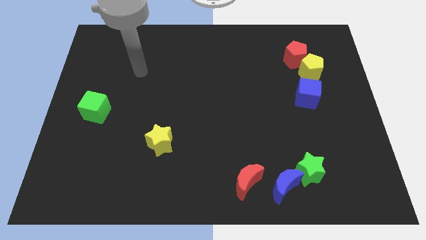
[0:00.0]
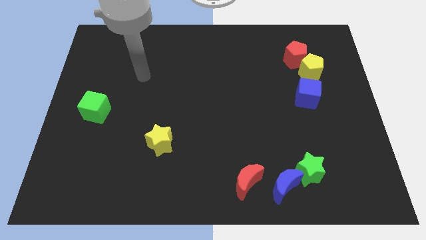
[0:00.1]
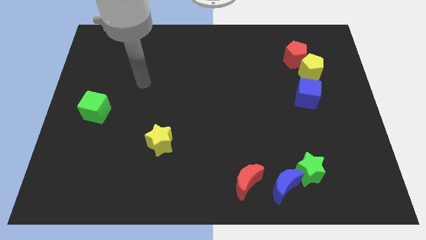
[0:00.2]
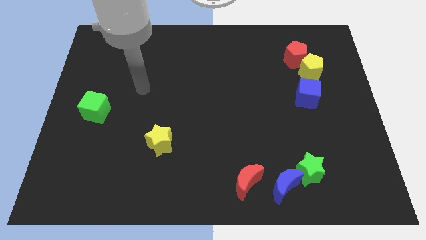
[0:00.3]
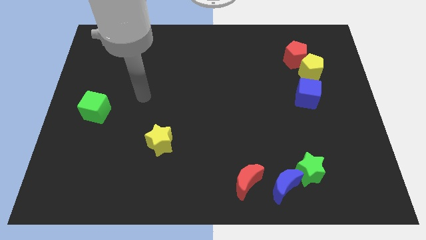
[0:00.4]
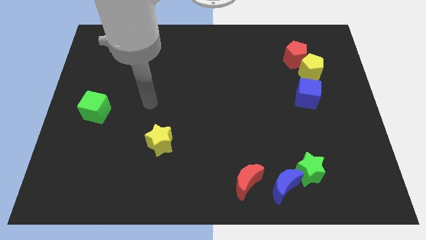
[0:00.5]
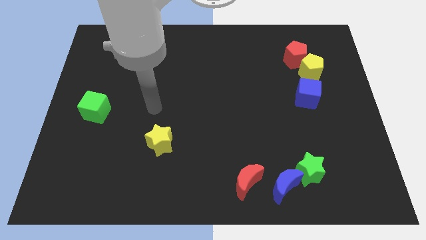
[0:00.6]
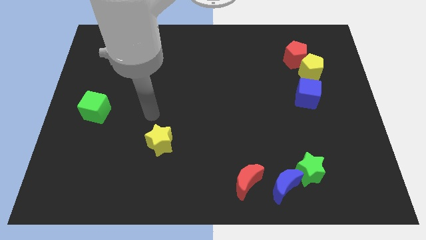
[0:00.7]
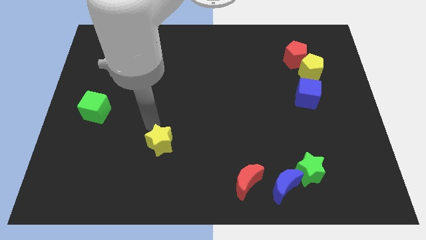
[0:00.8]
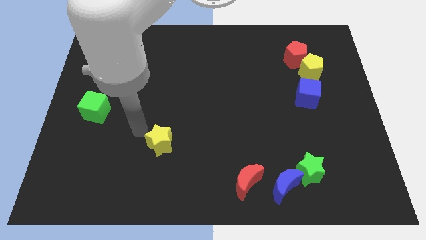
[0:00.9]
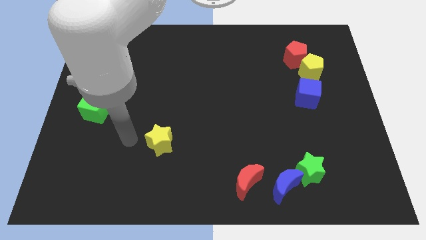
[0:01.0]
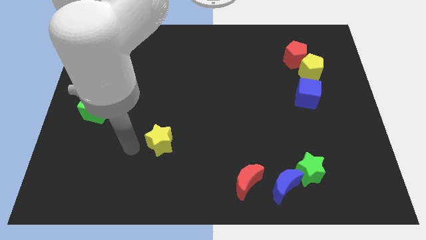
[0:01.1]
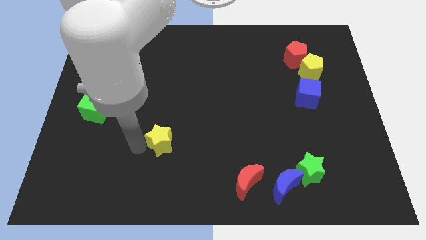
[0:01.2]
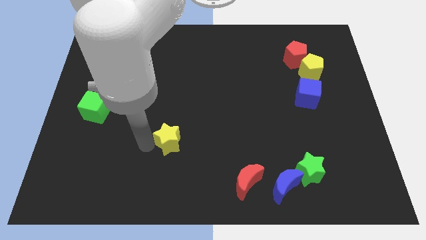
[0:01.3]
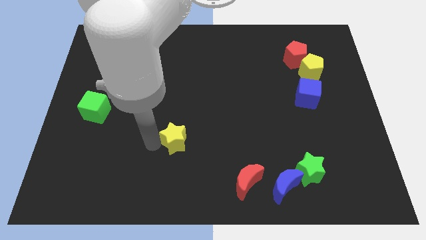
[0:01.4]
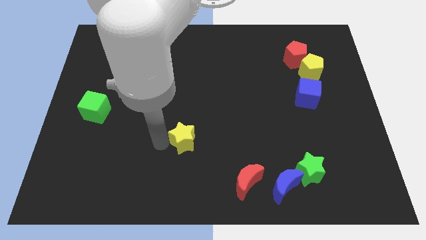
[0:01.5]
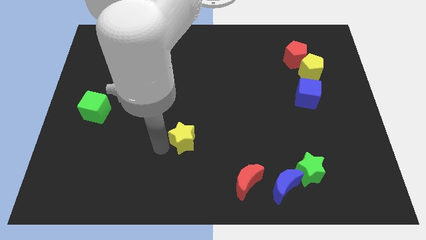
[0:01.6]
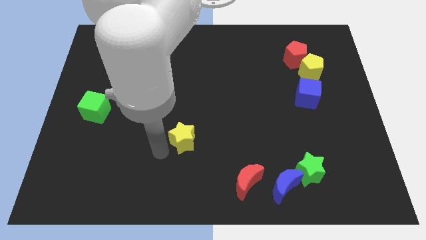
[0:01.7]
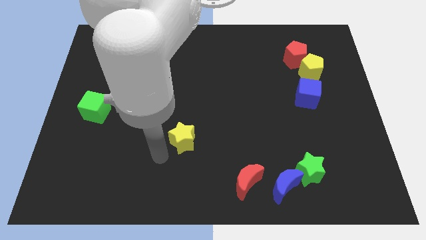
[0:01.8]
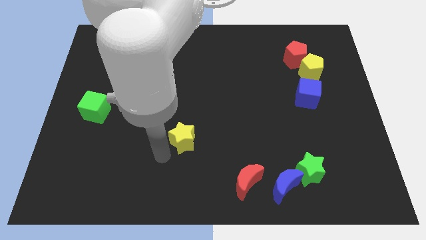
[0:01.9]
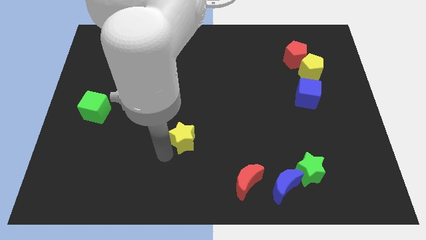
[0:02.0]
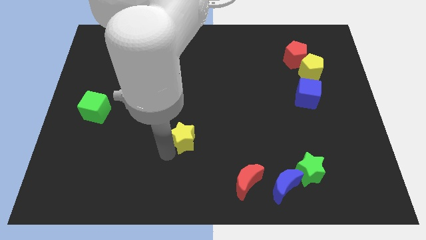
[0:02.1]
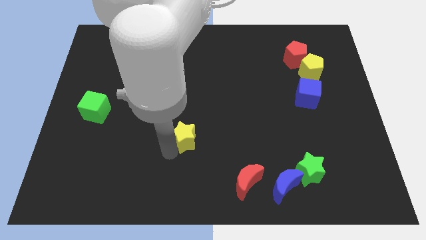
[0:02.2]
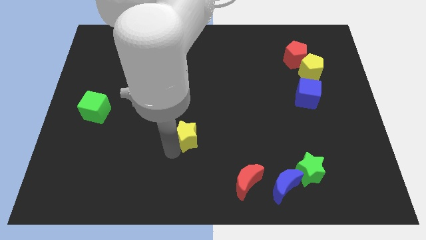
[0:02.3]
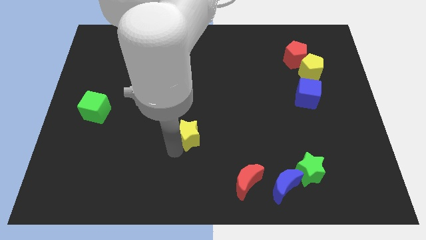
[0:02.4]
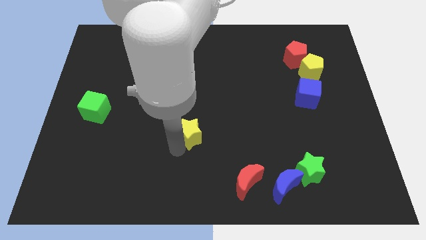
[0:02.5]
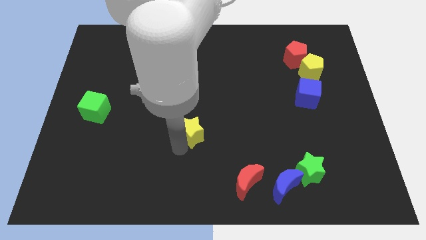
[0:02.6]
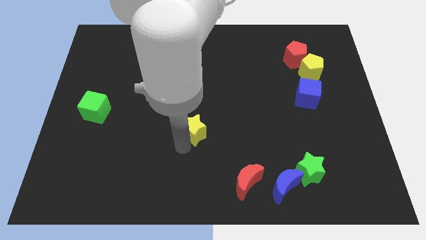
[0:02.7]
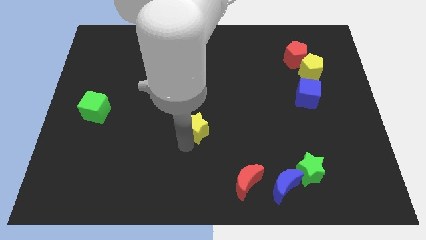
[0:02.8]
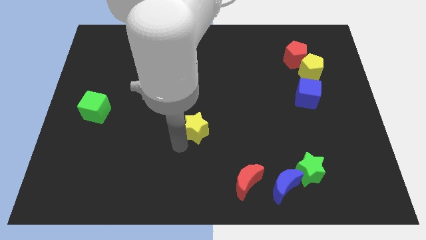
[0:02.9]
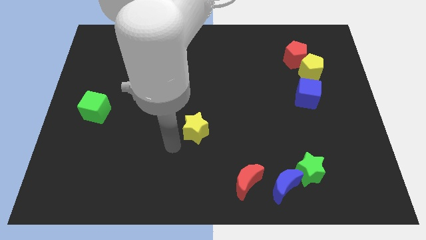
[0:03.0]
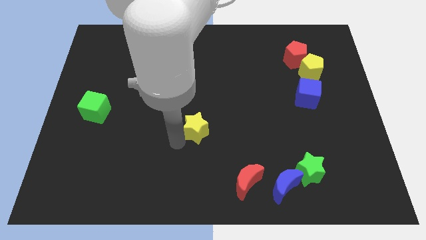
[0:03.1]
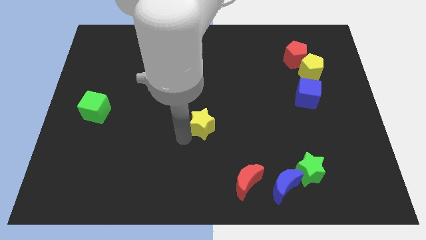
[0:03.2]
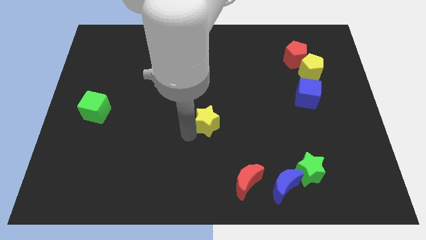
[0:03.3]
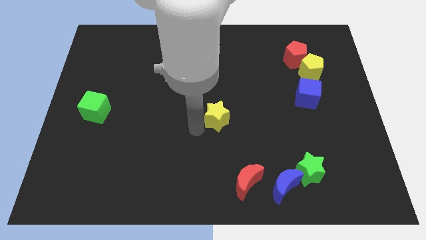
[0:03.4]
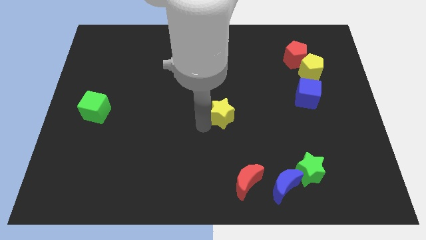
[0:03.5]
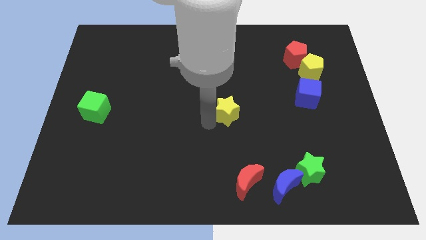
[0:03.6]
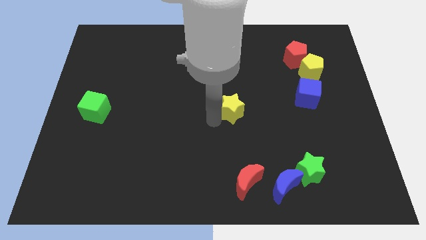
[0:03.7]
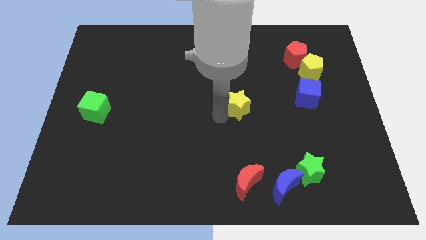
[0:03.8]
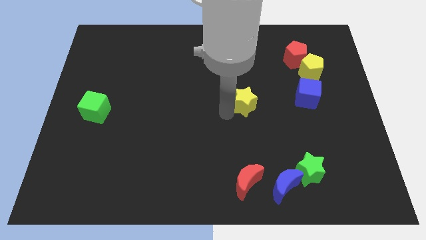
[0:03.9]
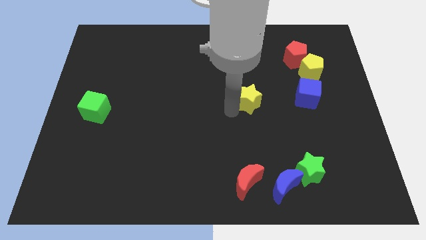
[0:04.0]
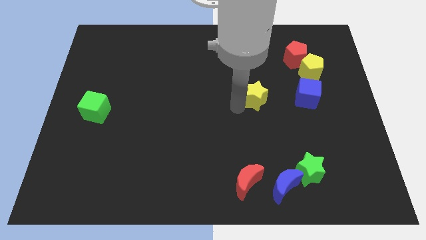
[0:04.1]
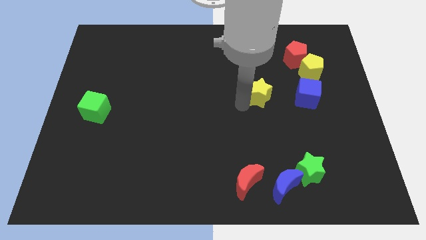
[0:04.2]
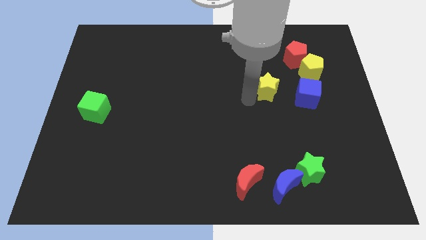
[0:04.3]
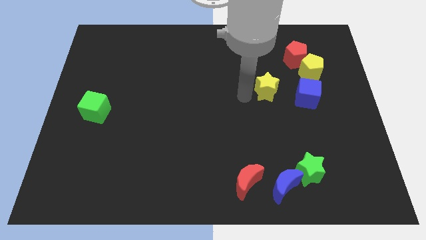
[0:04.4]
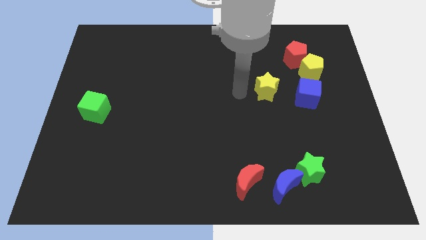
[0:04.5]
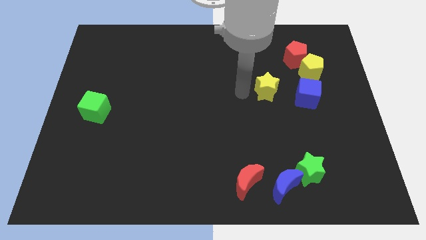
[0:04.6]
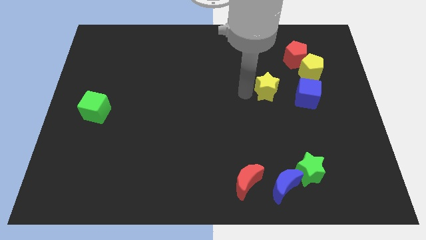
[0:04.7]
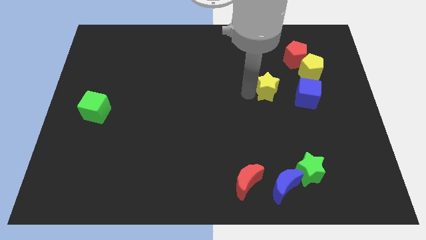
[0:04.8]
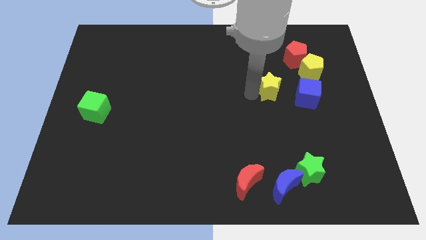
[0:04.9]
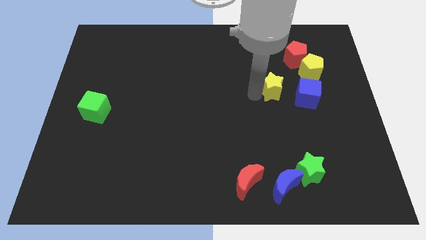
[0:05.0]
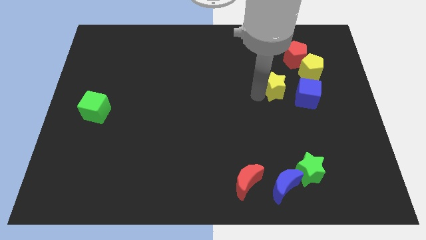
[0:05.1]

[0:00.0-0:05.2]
push the yellow star diagonally down and to the left of the yellow pentagon

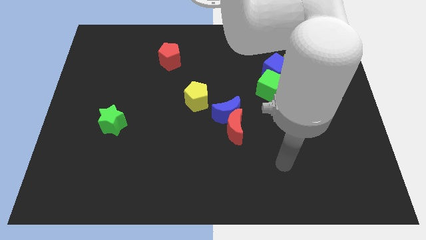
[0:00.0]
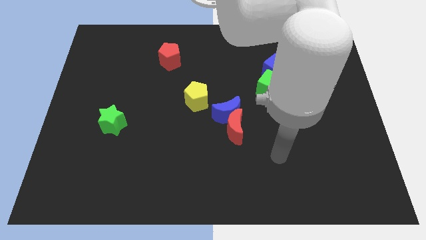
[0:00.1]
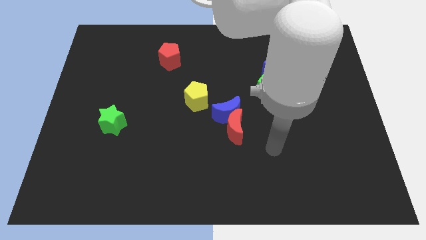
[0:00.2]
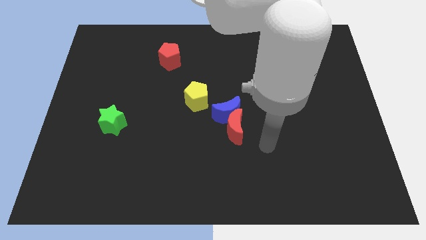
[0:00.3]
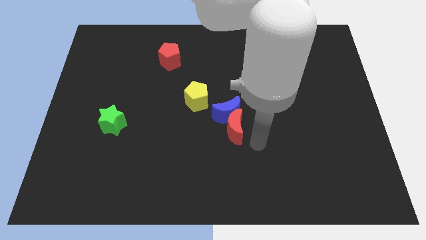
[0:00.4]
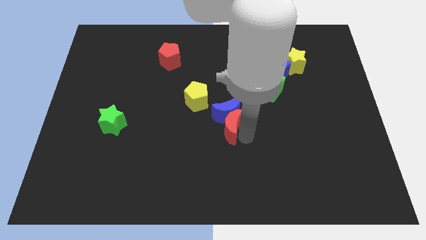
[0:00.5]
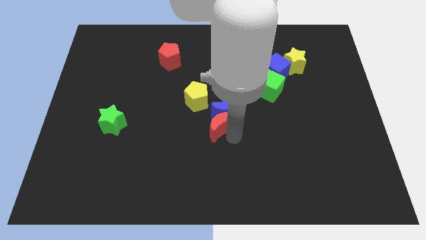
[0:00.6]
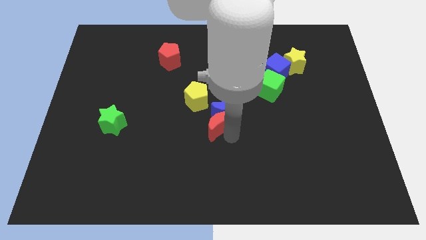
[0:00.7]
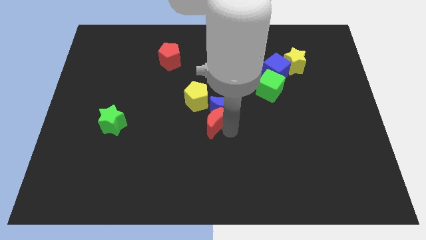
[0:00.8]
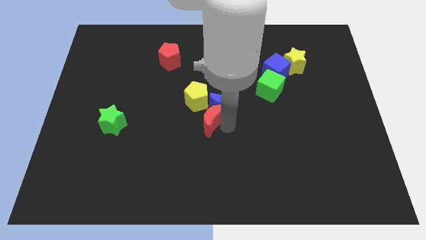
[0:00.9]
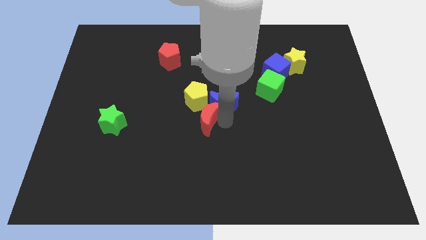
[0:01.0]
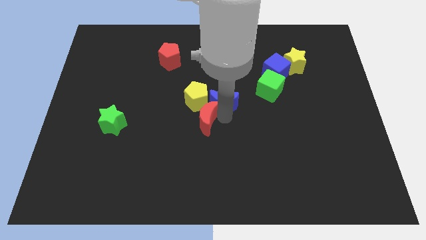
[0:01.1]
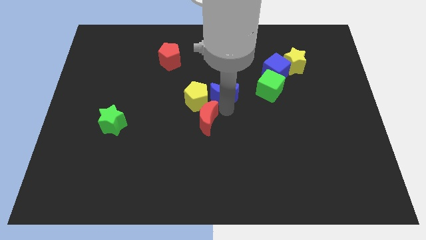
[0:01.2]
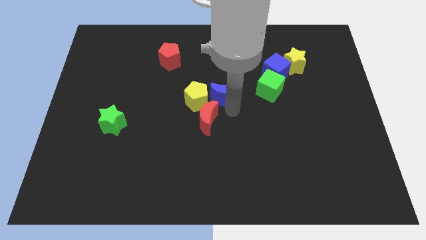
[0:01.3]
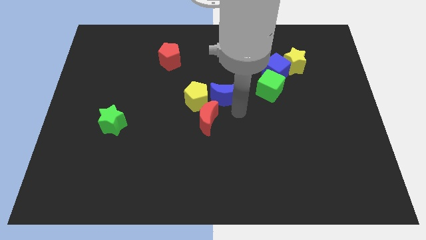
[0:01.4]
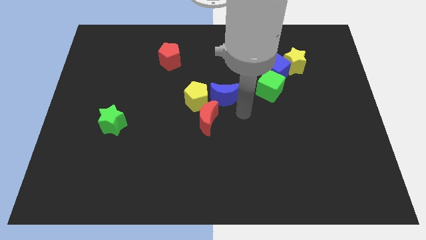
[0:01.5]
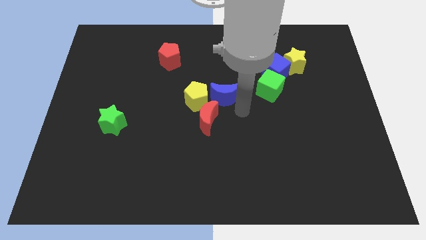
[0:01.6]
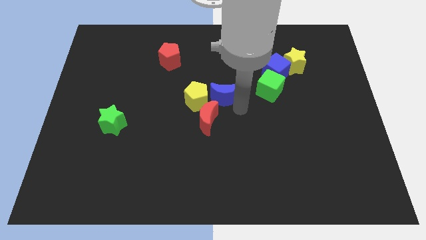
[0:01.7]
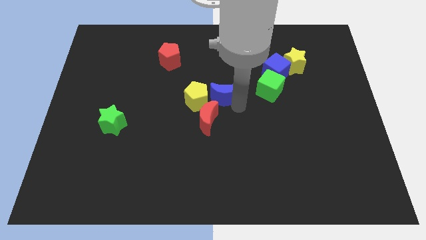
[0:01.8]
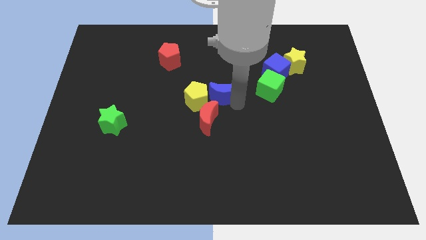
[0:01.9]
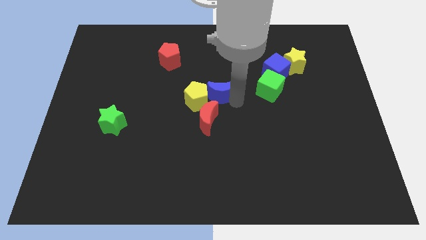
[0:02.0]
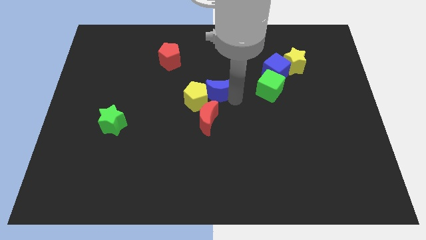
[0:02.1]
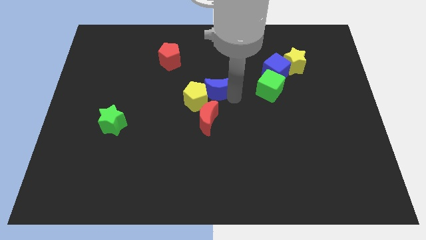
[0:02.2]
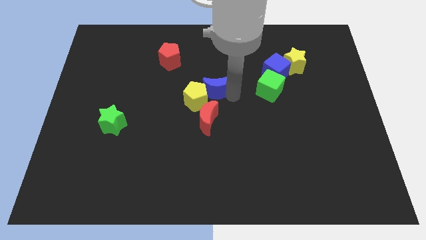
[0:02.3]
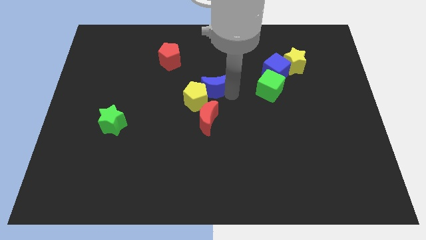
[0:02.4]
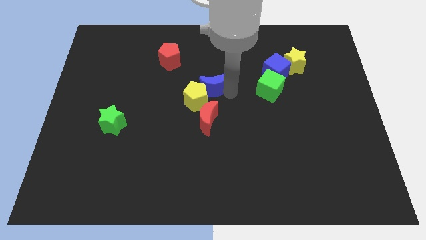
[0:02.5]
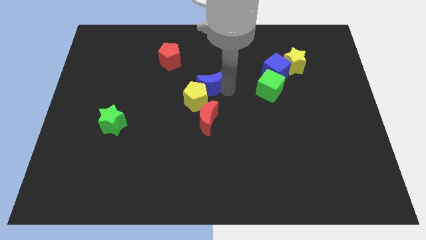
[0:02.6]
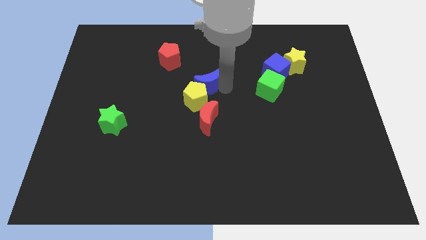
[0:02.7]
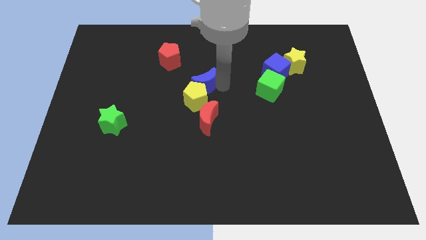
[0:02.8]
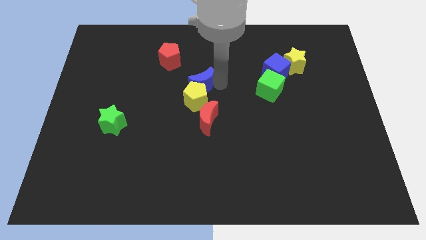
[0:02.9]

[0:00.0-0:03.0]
slide the blue moon diagonally up and to the left of the yellow pentagon
